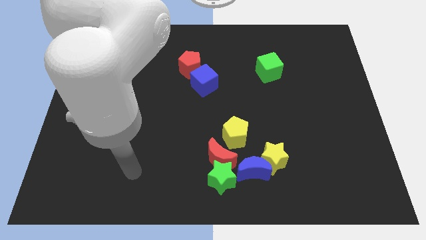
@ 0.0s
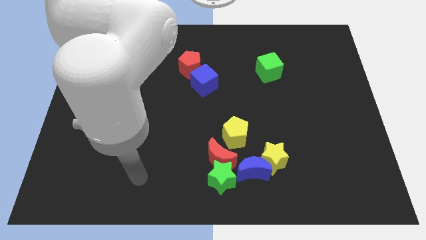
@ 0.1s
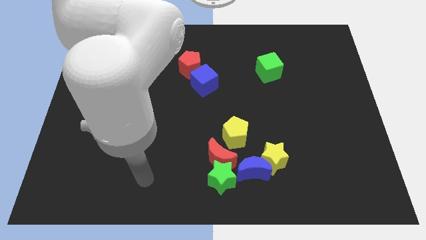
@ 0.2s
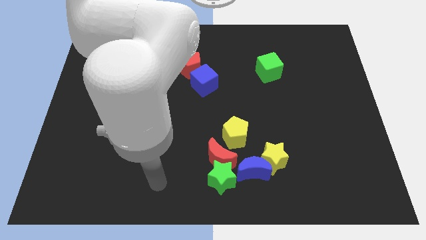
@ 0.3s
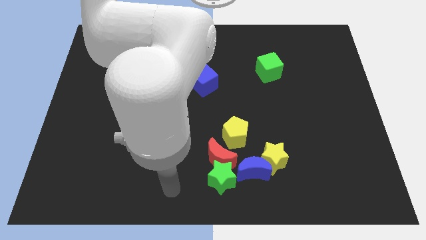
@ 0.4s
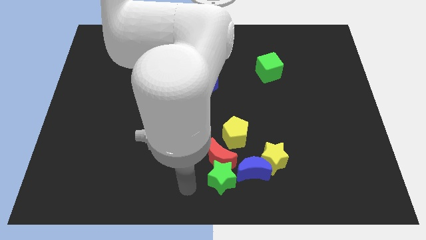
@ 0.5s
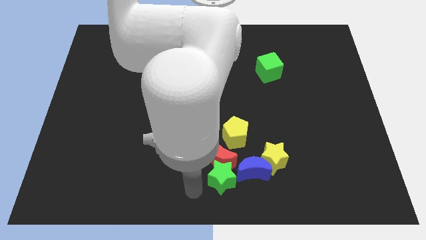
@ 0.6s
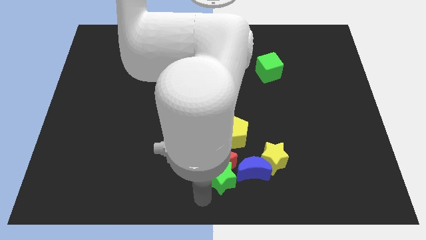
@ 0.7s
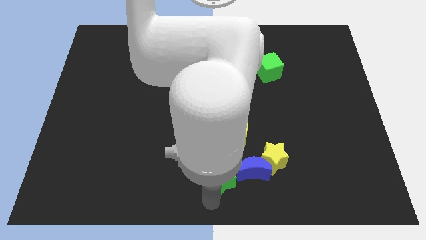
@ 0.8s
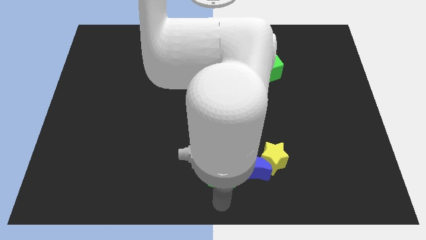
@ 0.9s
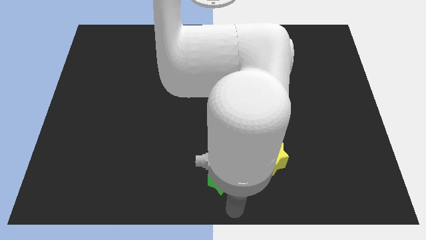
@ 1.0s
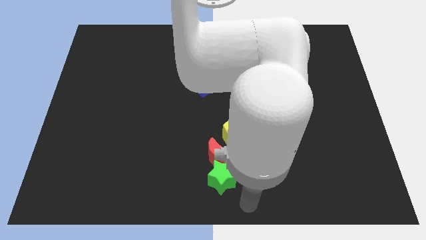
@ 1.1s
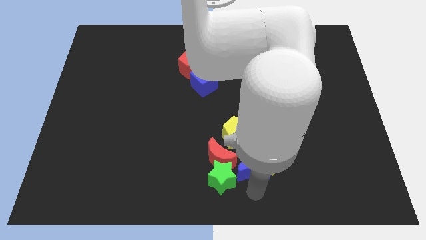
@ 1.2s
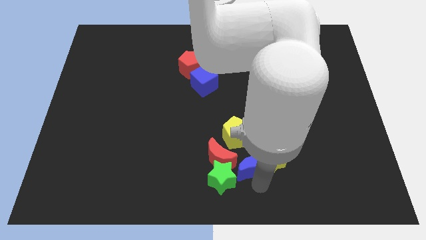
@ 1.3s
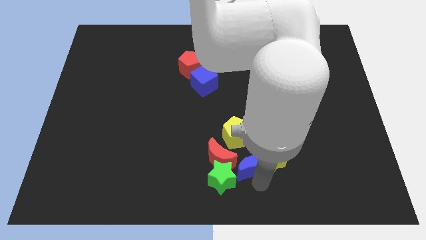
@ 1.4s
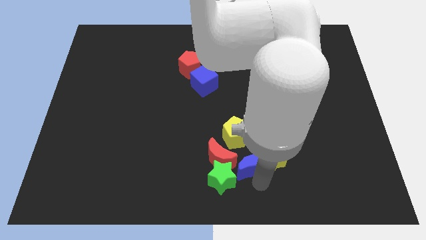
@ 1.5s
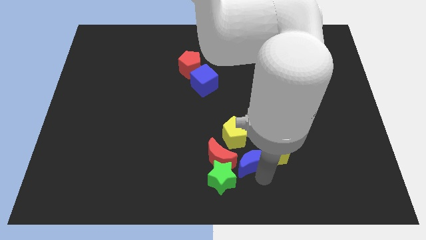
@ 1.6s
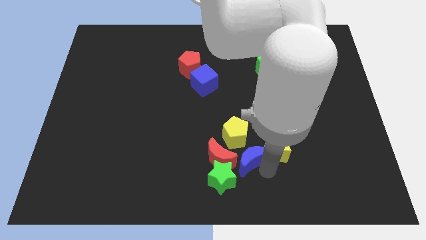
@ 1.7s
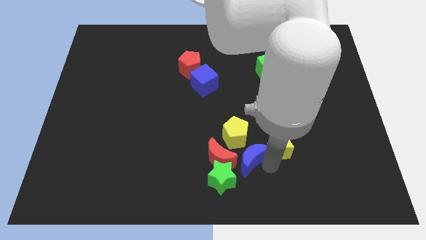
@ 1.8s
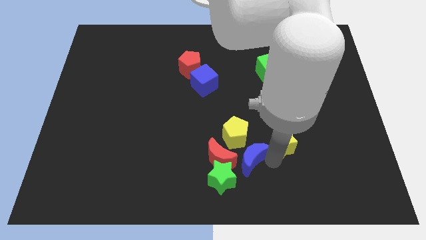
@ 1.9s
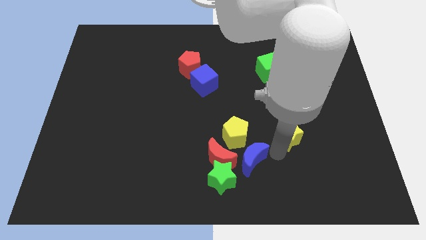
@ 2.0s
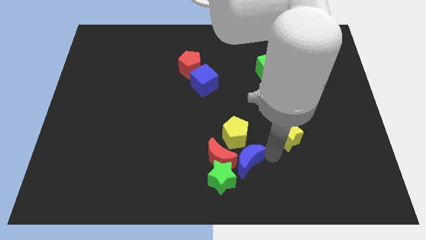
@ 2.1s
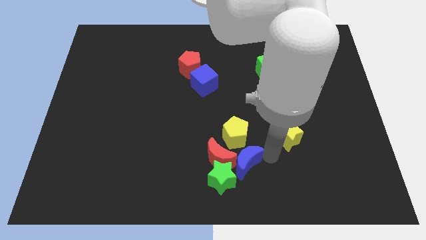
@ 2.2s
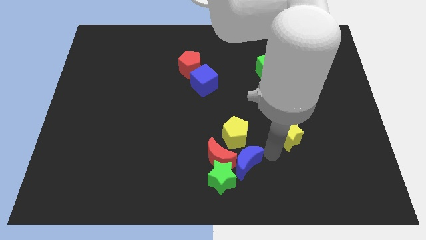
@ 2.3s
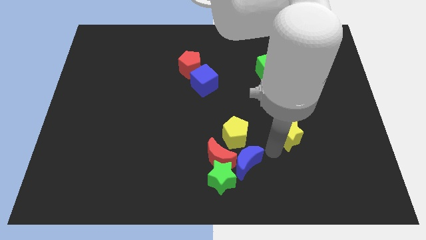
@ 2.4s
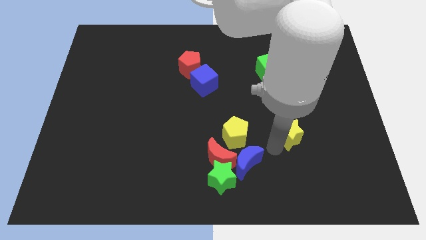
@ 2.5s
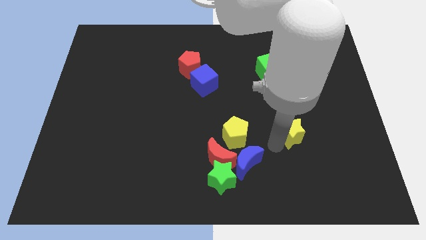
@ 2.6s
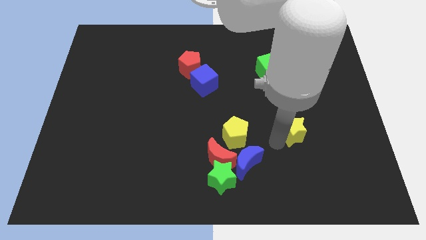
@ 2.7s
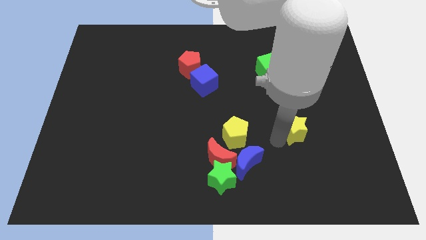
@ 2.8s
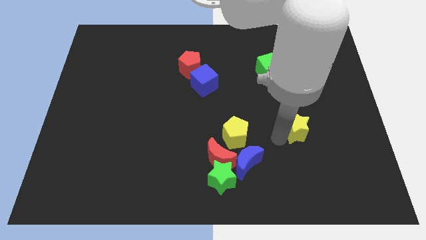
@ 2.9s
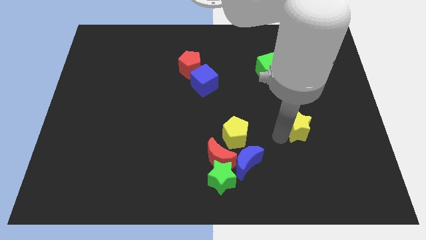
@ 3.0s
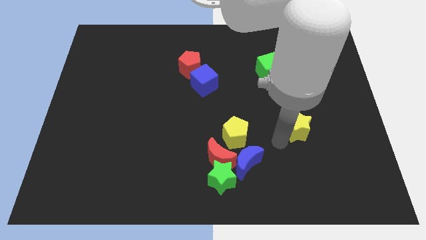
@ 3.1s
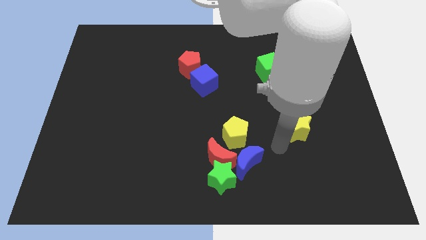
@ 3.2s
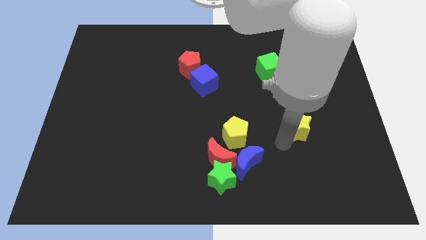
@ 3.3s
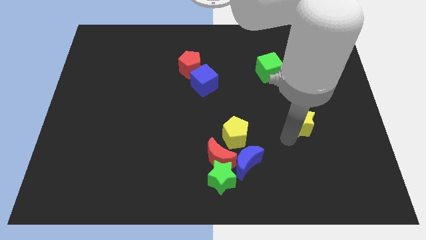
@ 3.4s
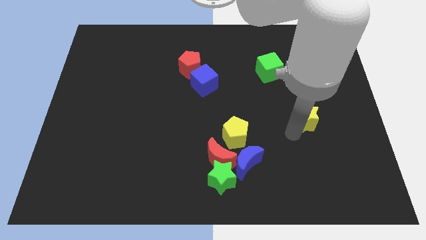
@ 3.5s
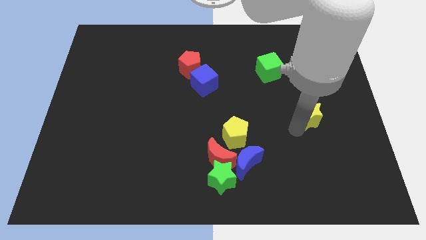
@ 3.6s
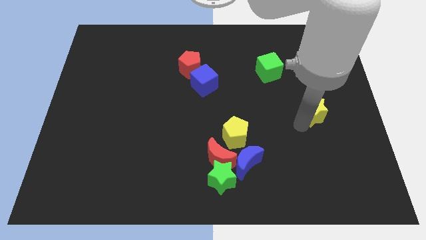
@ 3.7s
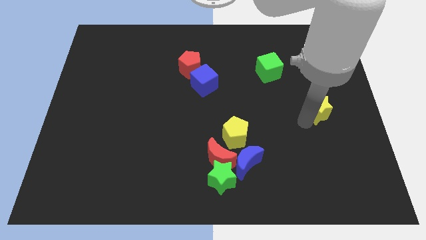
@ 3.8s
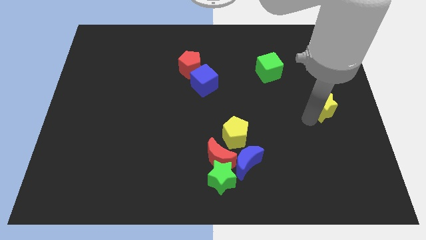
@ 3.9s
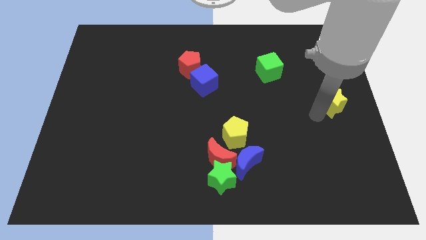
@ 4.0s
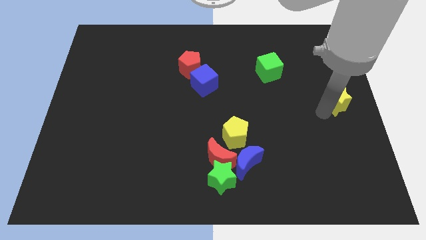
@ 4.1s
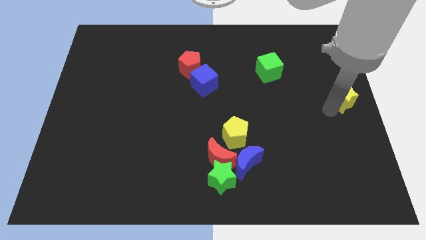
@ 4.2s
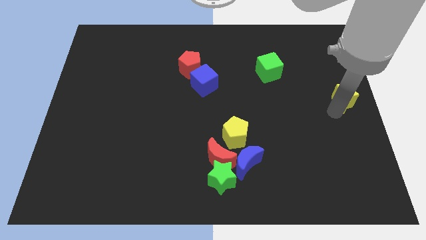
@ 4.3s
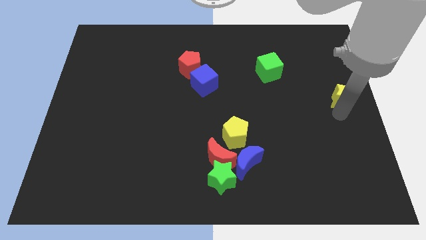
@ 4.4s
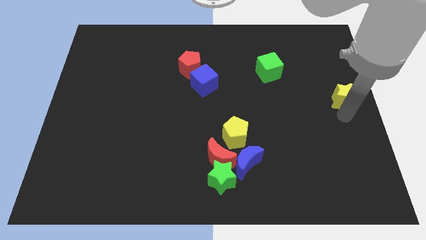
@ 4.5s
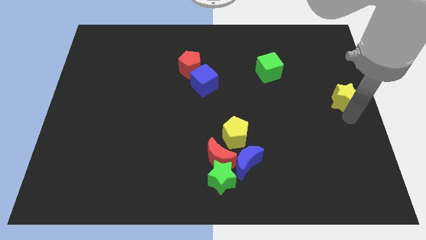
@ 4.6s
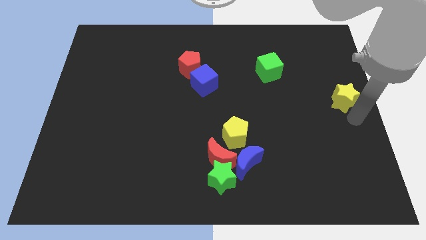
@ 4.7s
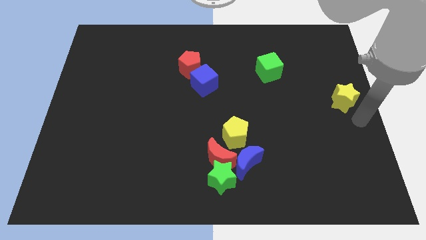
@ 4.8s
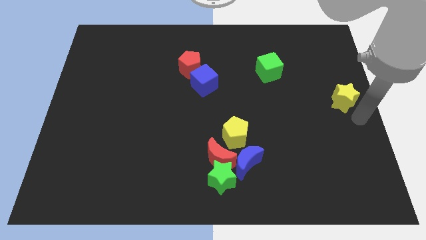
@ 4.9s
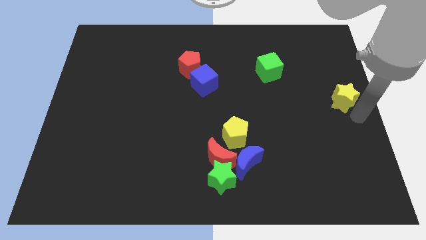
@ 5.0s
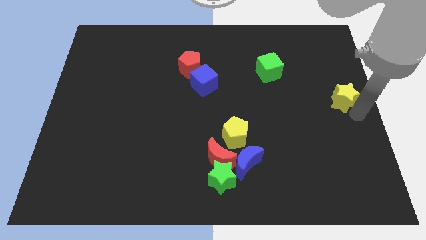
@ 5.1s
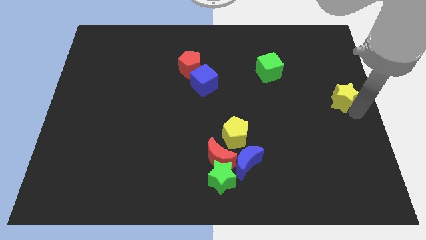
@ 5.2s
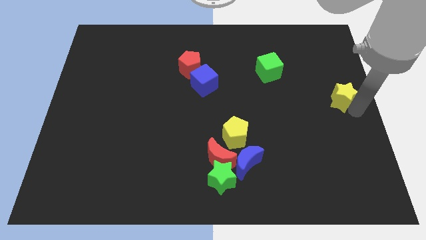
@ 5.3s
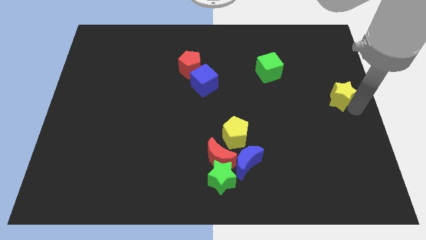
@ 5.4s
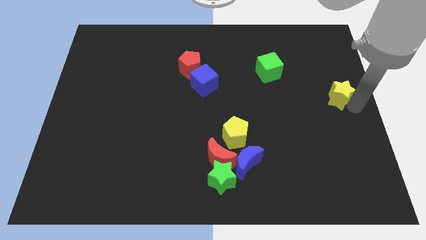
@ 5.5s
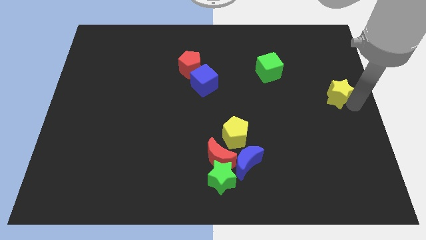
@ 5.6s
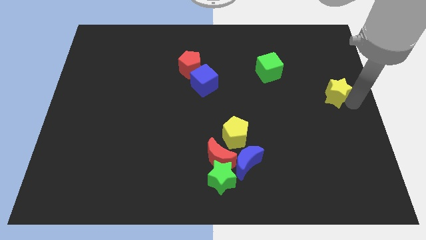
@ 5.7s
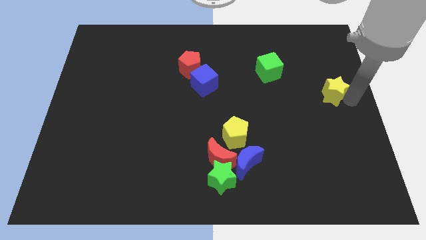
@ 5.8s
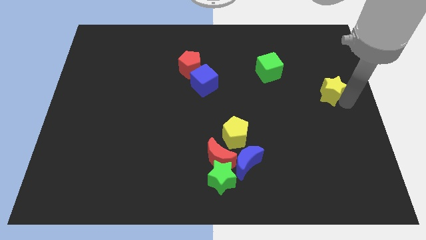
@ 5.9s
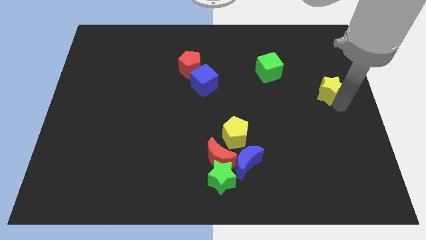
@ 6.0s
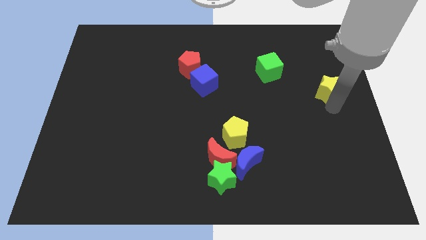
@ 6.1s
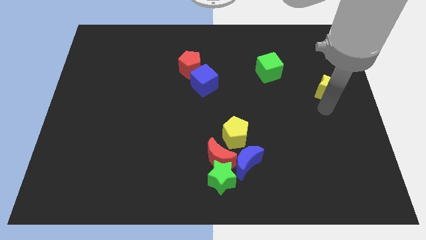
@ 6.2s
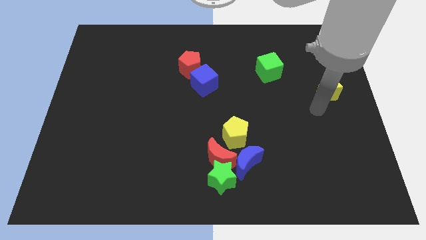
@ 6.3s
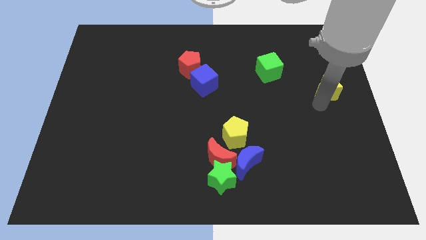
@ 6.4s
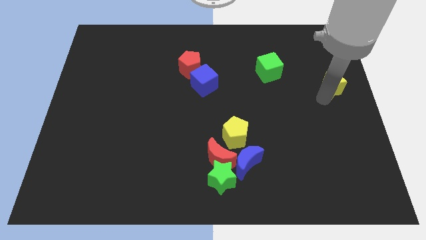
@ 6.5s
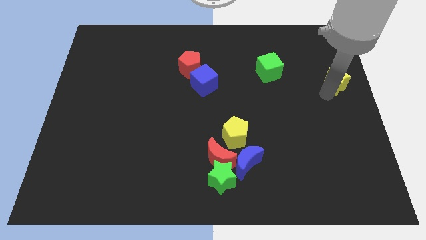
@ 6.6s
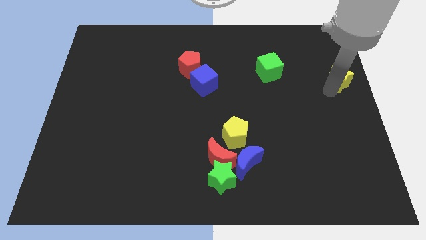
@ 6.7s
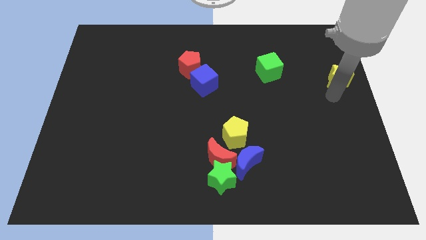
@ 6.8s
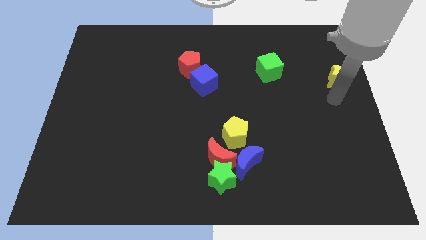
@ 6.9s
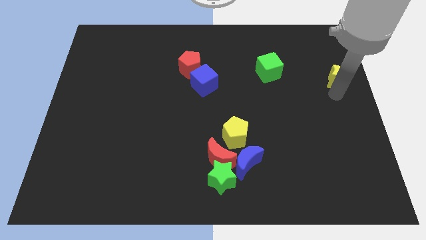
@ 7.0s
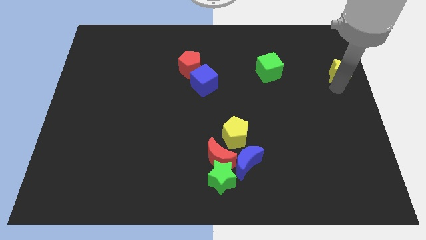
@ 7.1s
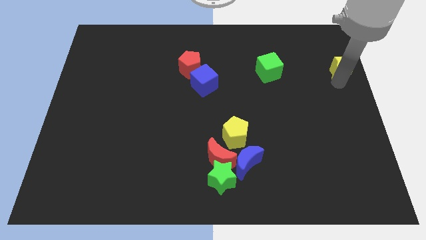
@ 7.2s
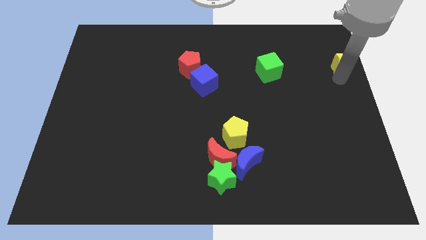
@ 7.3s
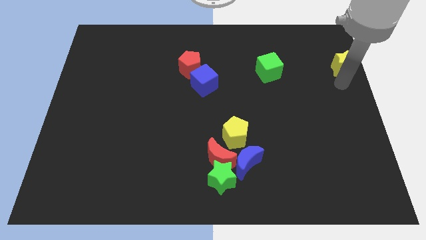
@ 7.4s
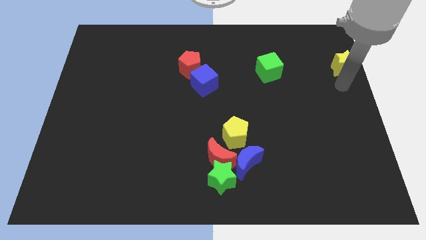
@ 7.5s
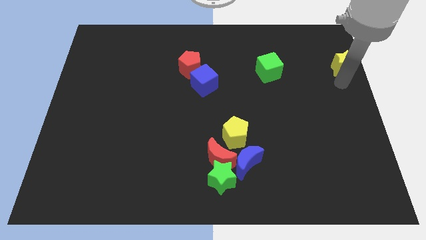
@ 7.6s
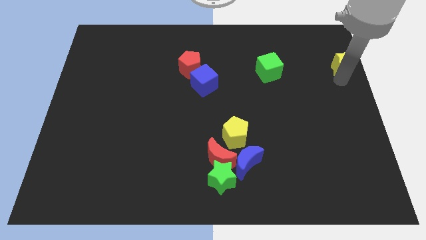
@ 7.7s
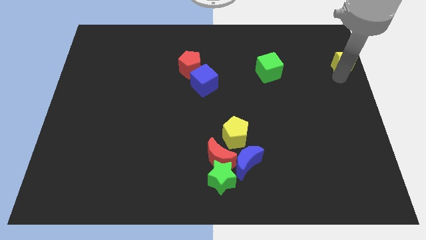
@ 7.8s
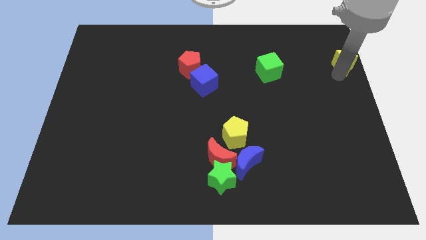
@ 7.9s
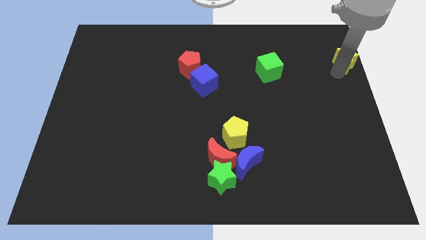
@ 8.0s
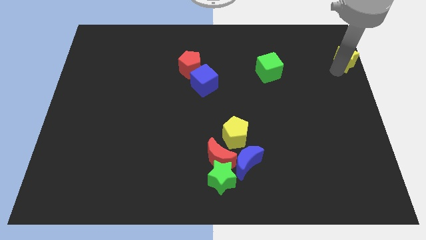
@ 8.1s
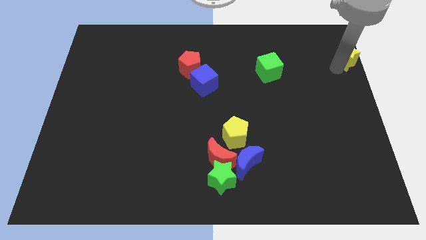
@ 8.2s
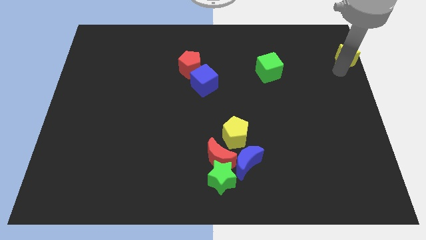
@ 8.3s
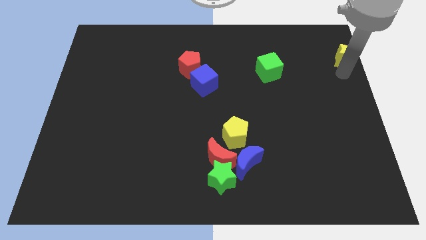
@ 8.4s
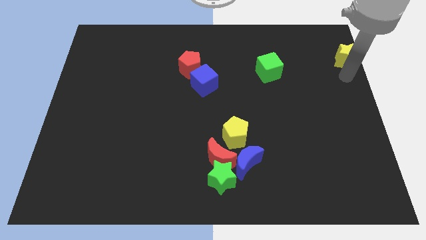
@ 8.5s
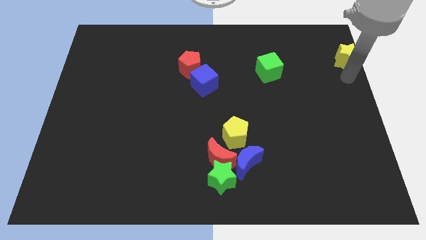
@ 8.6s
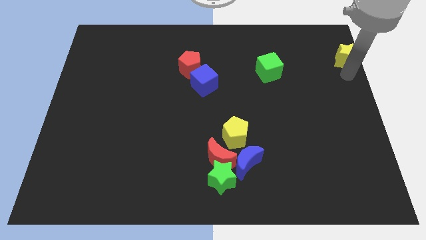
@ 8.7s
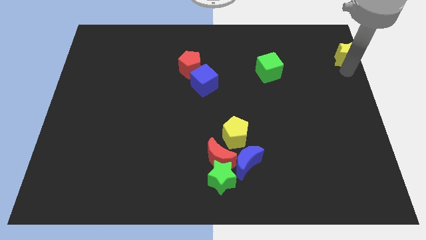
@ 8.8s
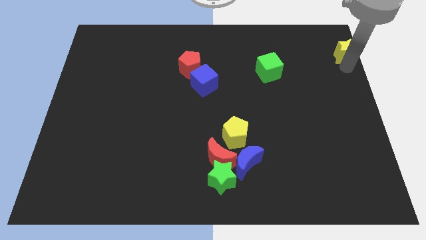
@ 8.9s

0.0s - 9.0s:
move the yellow star to the top right of the board
